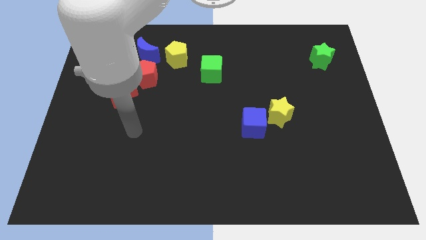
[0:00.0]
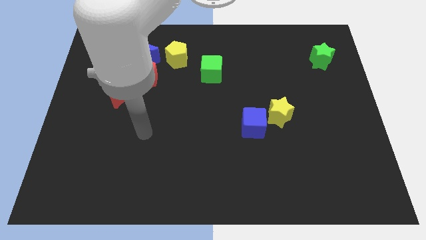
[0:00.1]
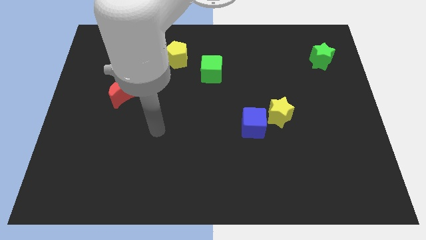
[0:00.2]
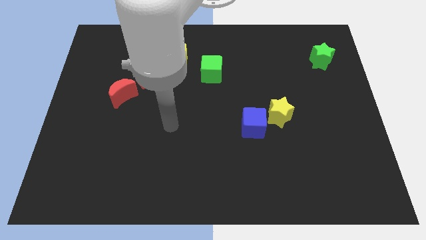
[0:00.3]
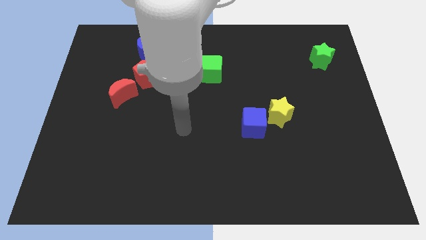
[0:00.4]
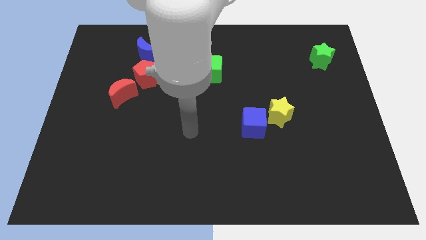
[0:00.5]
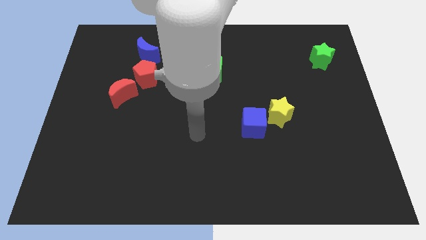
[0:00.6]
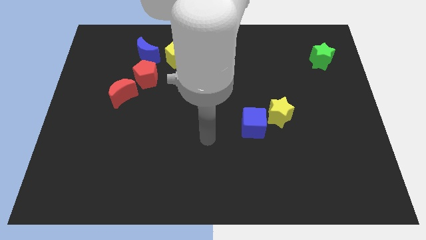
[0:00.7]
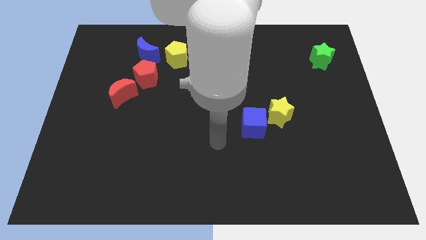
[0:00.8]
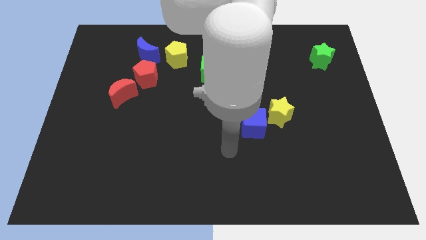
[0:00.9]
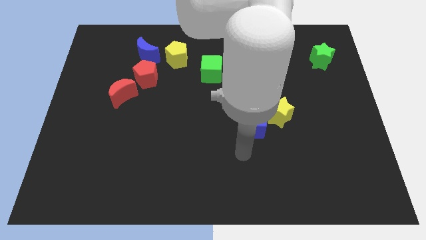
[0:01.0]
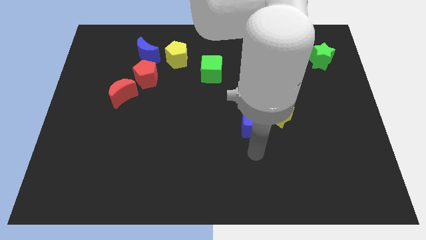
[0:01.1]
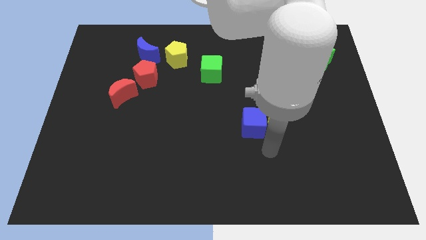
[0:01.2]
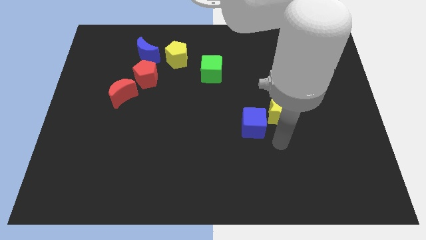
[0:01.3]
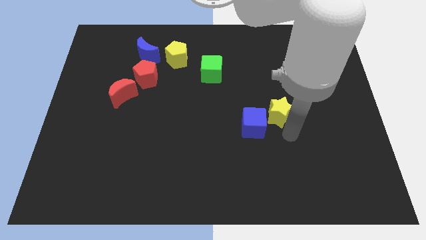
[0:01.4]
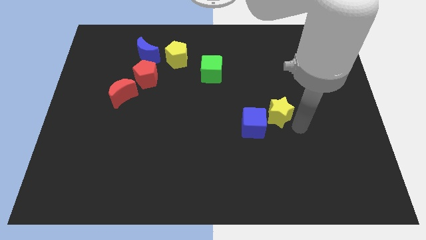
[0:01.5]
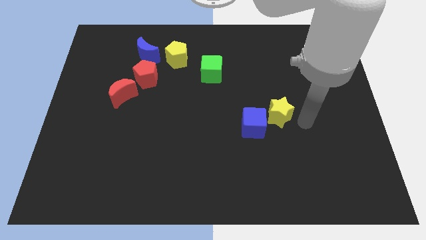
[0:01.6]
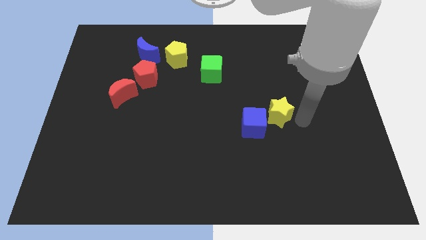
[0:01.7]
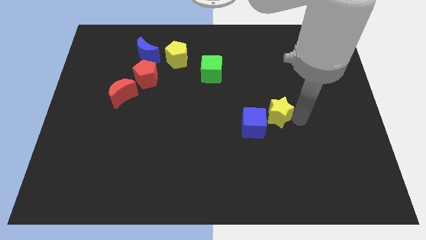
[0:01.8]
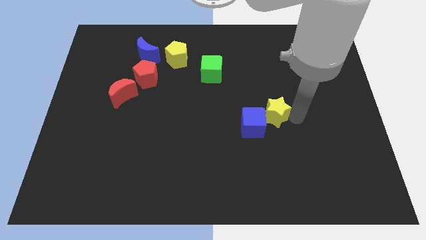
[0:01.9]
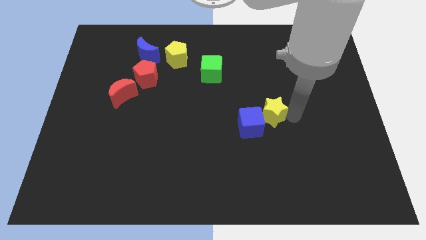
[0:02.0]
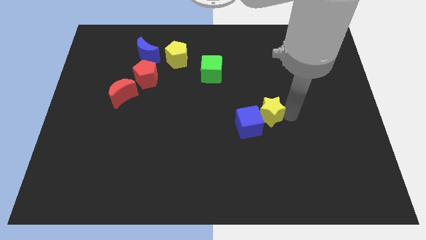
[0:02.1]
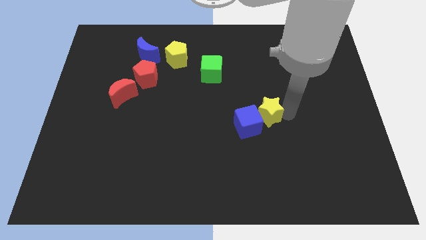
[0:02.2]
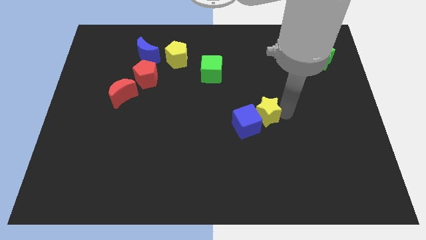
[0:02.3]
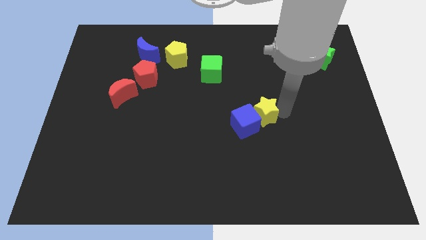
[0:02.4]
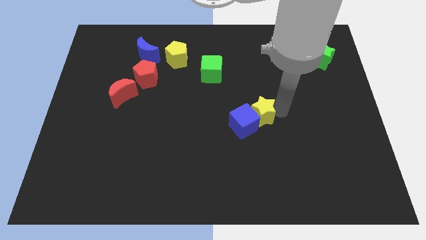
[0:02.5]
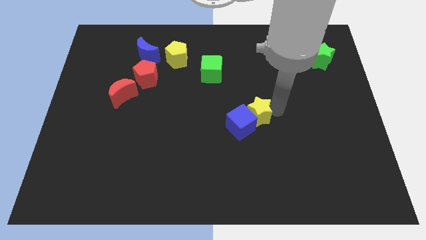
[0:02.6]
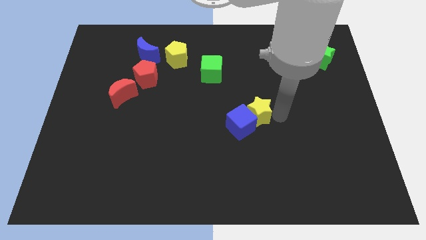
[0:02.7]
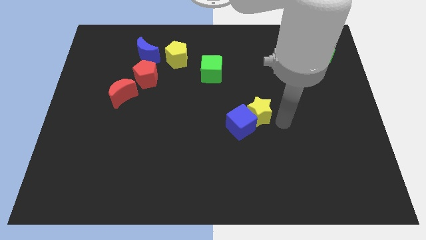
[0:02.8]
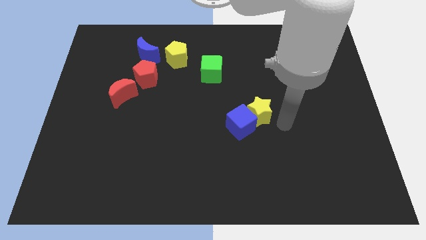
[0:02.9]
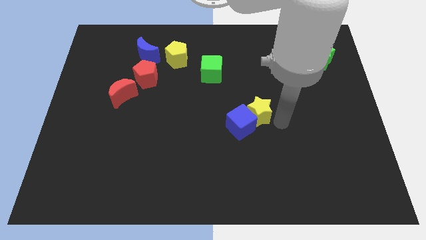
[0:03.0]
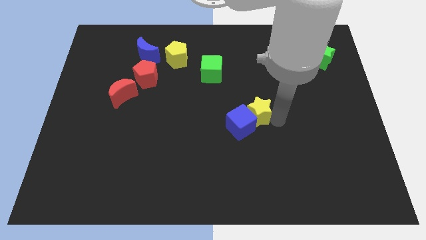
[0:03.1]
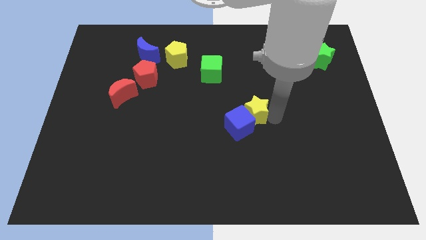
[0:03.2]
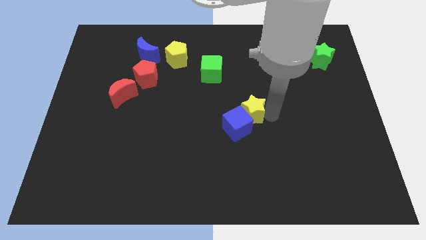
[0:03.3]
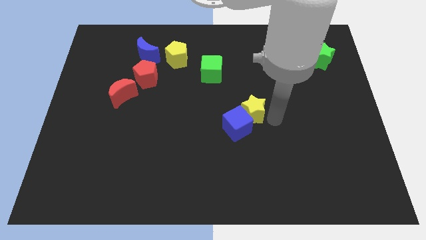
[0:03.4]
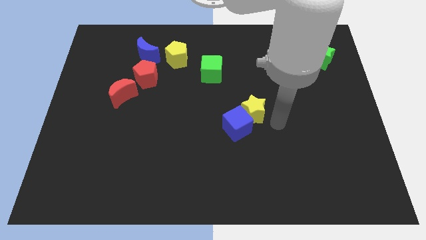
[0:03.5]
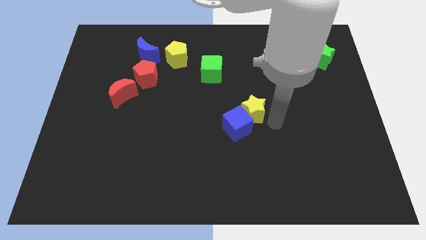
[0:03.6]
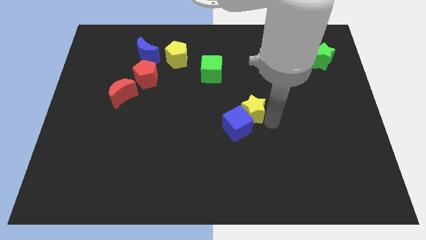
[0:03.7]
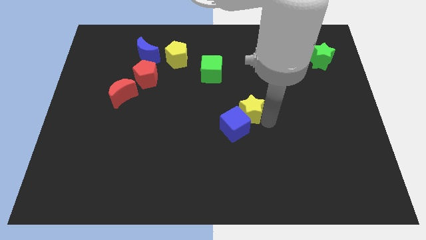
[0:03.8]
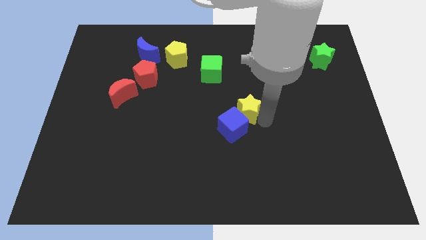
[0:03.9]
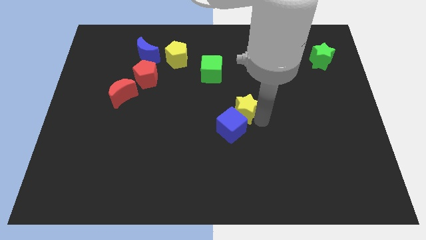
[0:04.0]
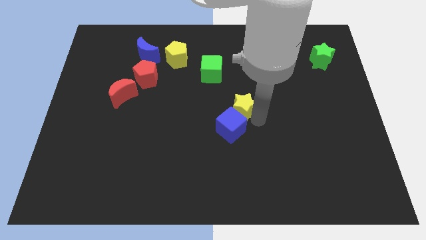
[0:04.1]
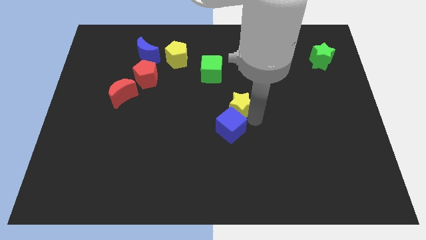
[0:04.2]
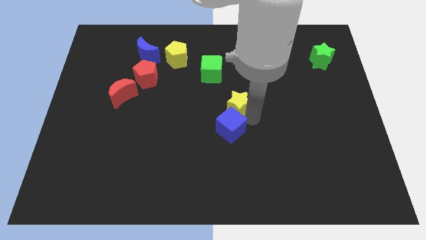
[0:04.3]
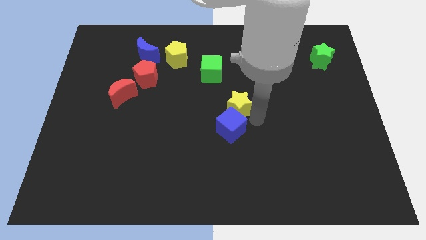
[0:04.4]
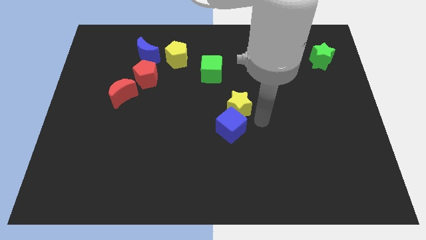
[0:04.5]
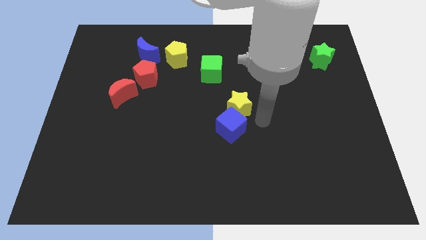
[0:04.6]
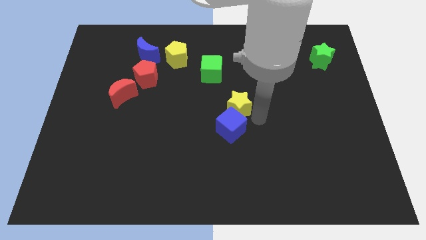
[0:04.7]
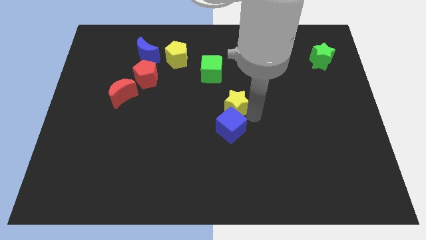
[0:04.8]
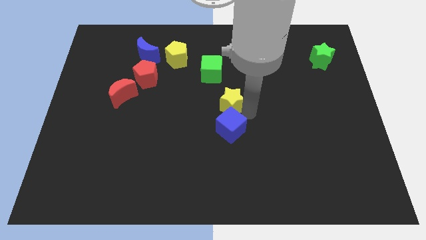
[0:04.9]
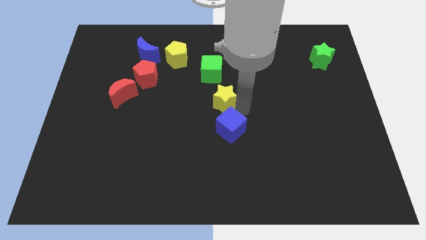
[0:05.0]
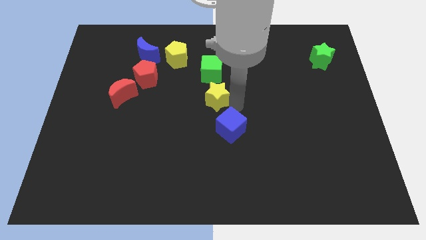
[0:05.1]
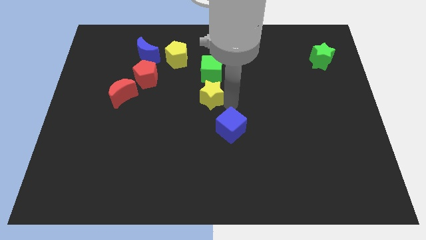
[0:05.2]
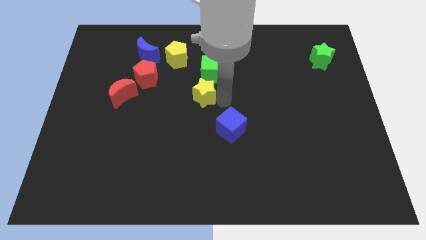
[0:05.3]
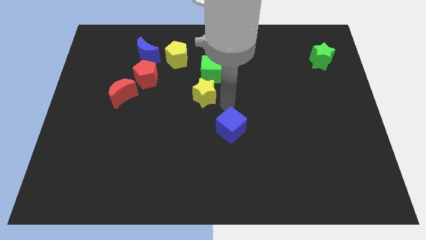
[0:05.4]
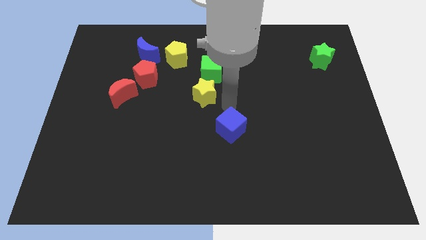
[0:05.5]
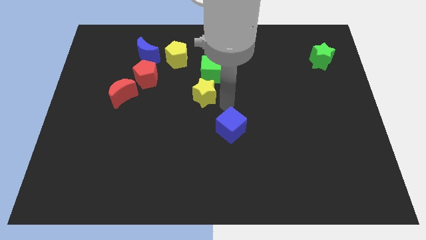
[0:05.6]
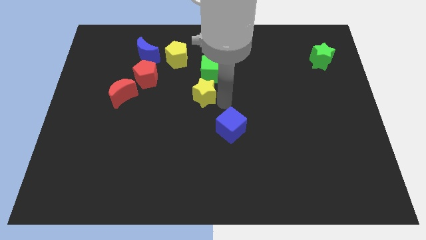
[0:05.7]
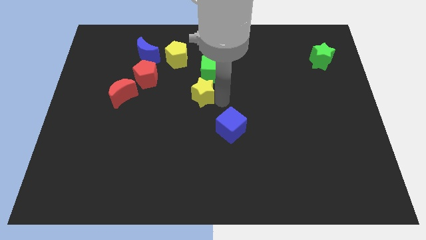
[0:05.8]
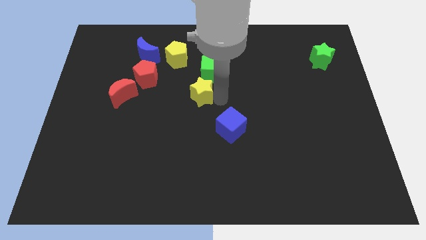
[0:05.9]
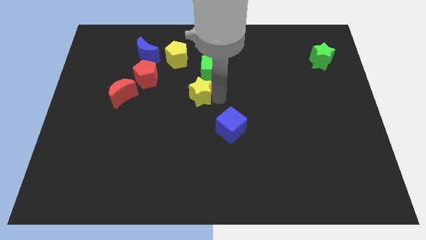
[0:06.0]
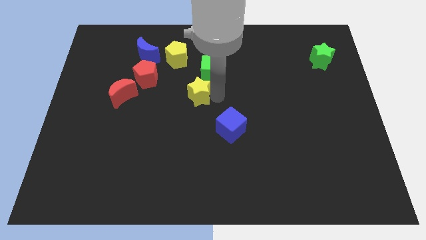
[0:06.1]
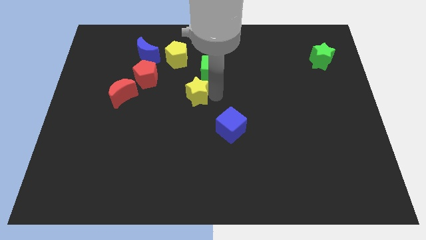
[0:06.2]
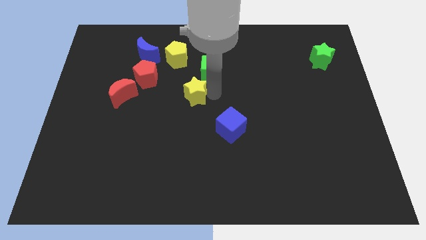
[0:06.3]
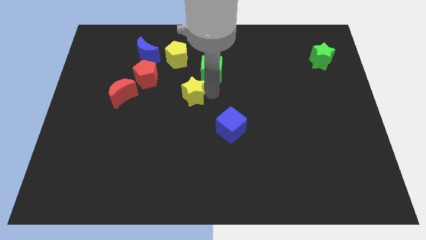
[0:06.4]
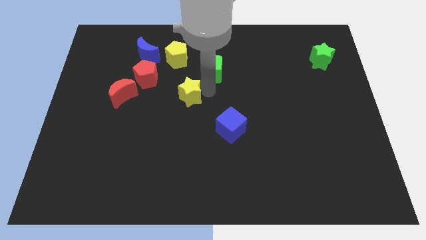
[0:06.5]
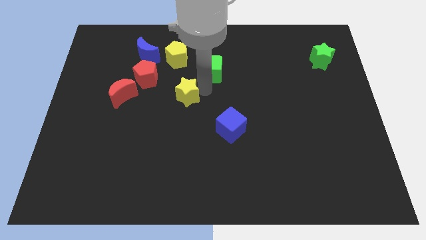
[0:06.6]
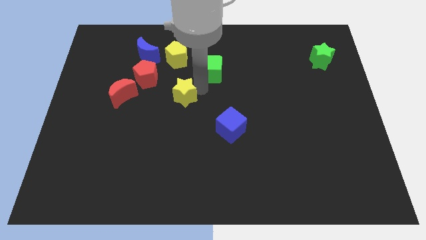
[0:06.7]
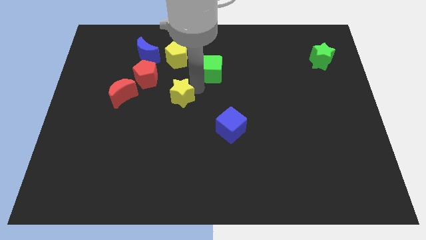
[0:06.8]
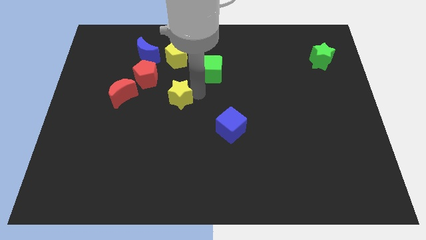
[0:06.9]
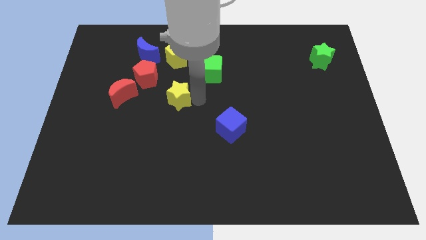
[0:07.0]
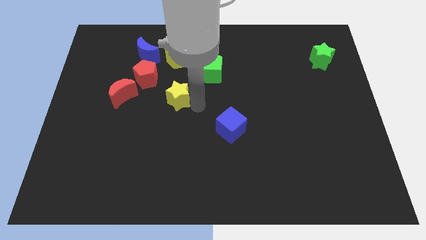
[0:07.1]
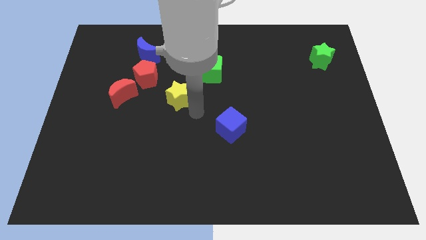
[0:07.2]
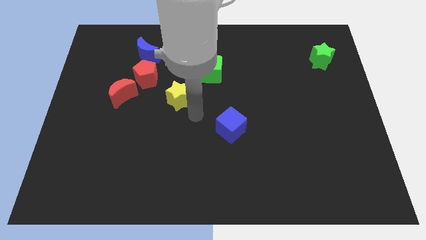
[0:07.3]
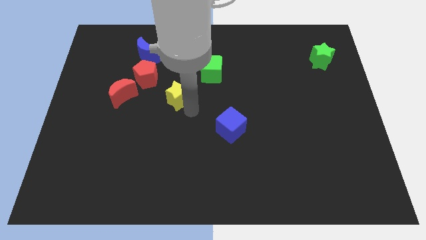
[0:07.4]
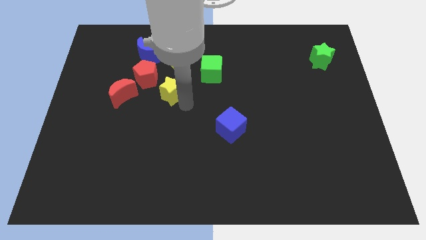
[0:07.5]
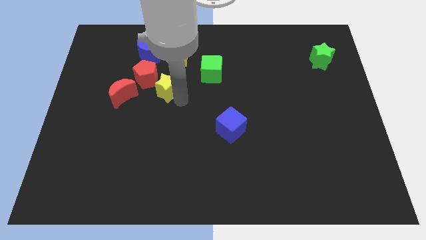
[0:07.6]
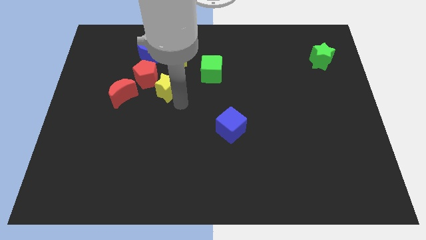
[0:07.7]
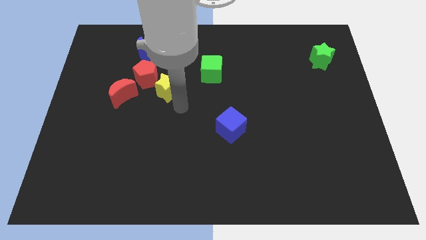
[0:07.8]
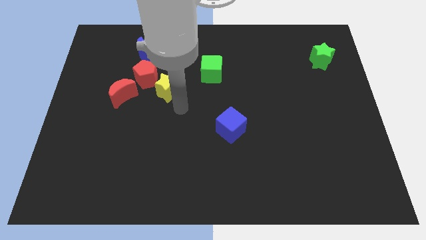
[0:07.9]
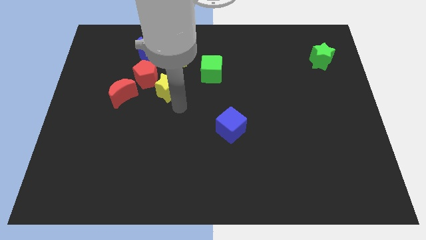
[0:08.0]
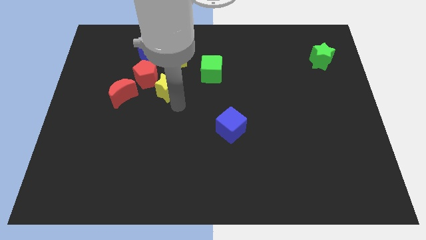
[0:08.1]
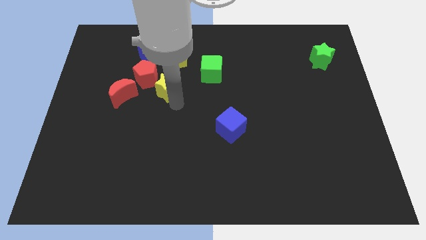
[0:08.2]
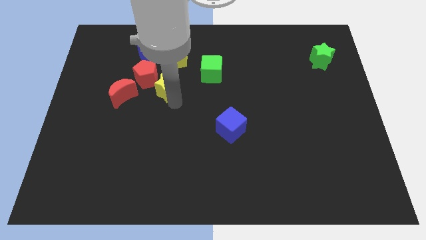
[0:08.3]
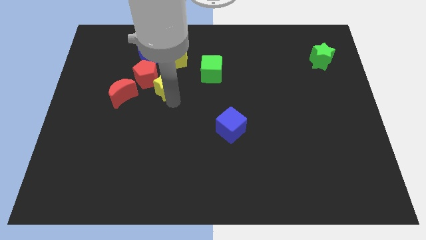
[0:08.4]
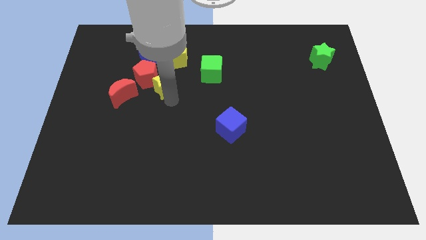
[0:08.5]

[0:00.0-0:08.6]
push the yellow star to the red pentagon
